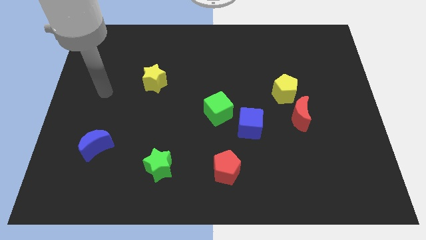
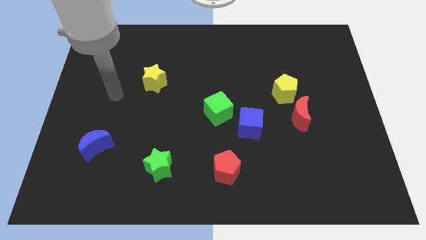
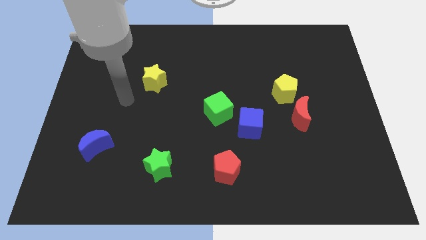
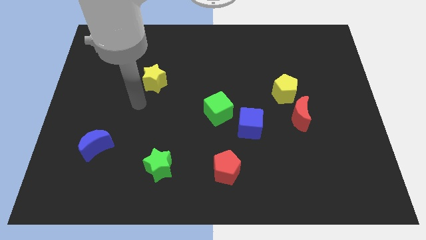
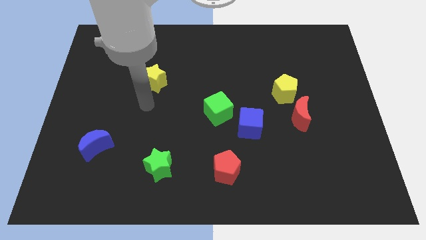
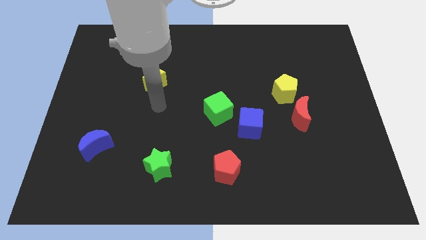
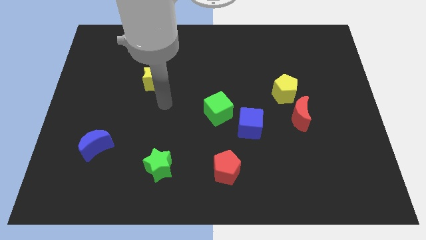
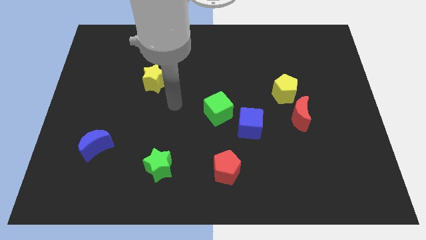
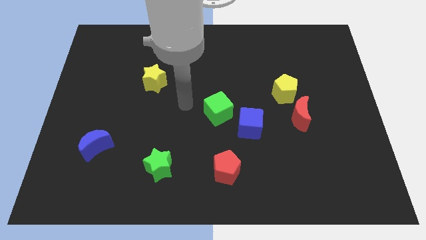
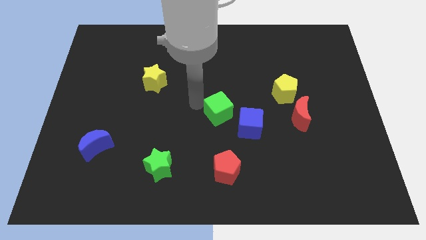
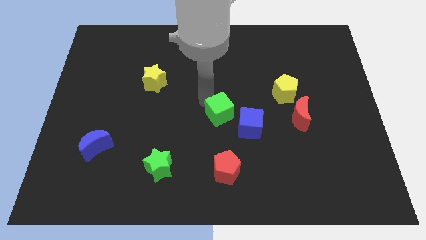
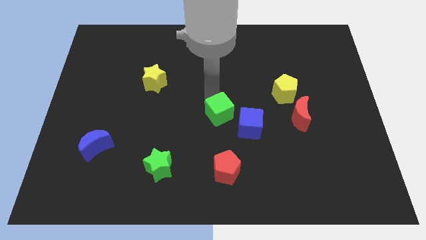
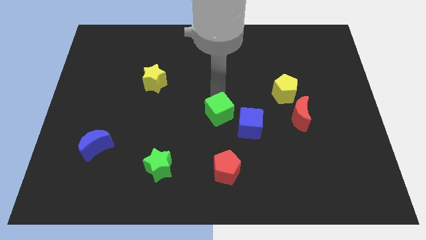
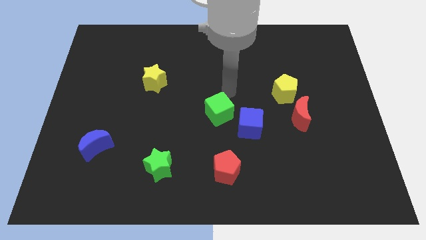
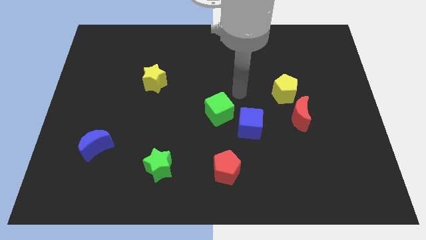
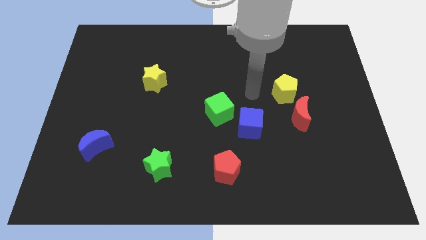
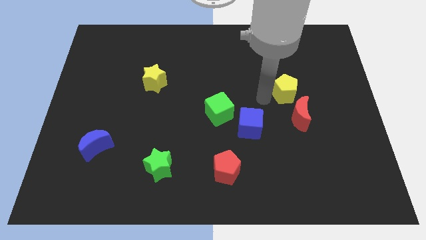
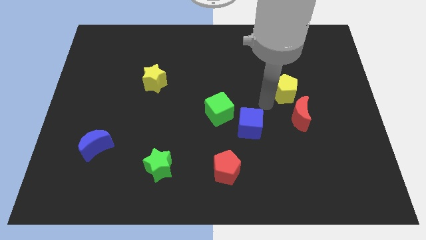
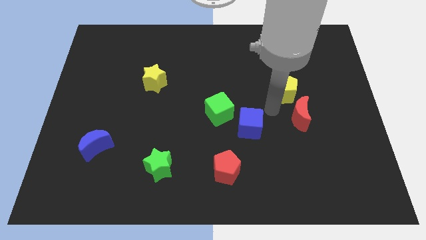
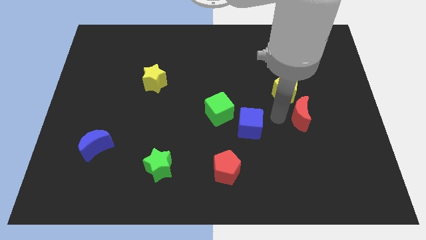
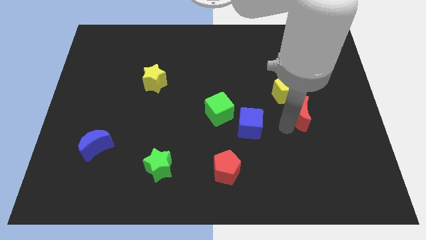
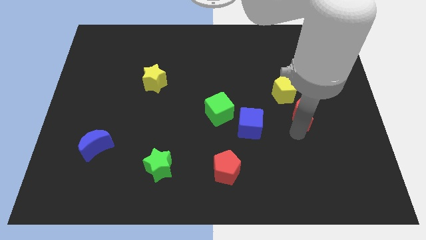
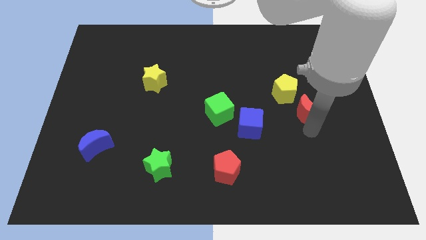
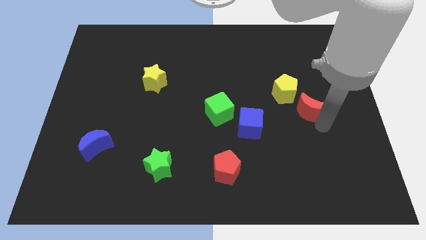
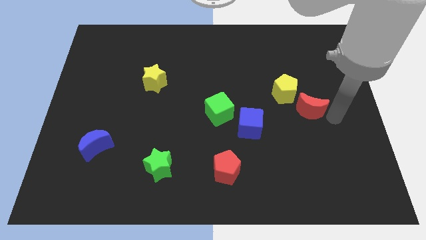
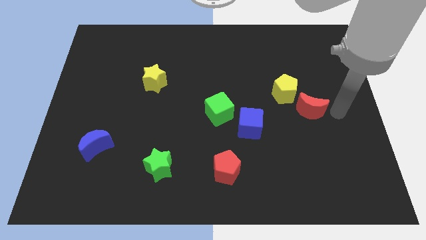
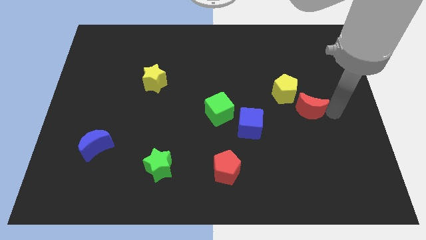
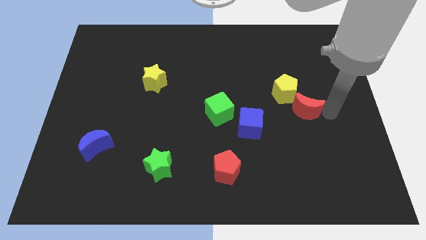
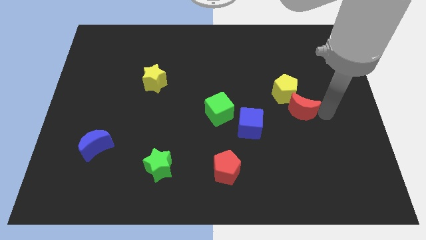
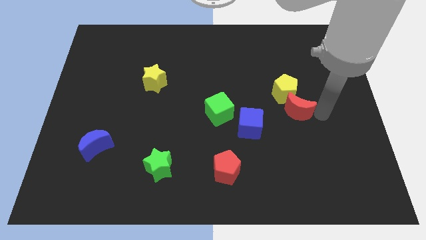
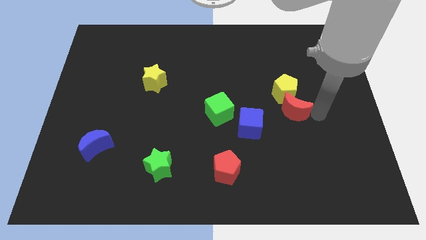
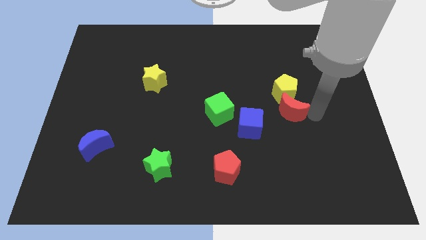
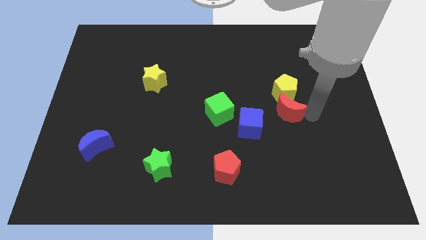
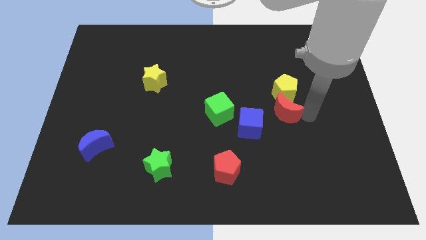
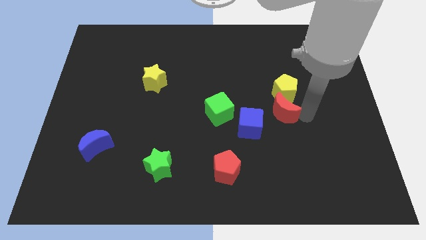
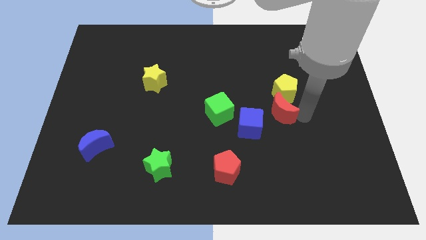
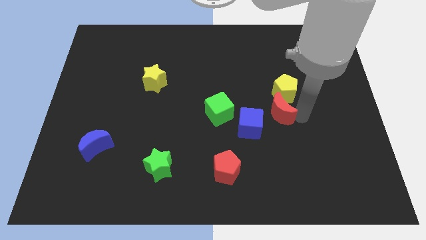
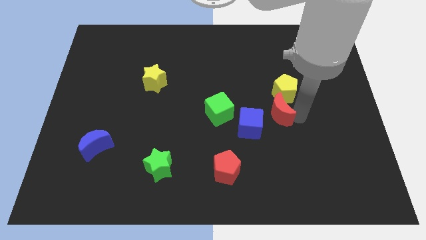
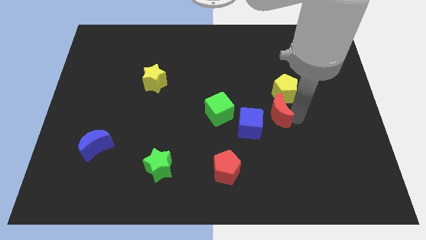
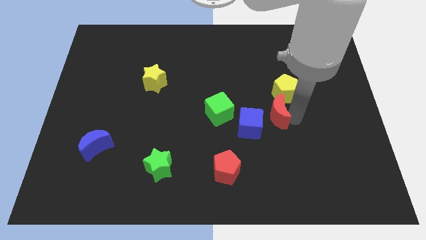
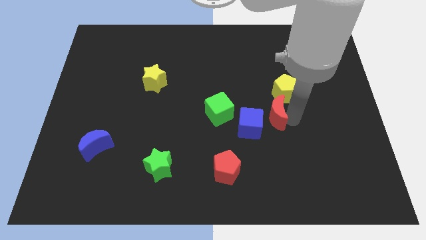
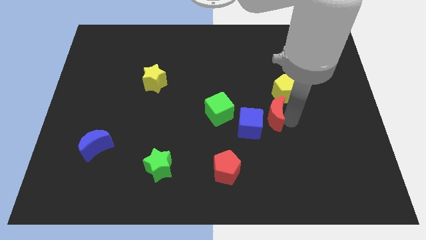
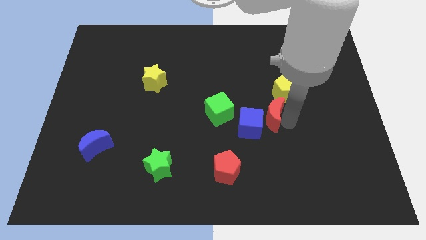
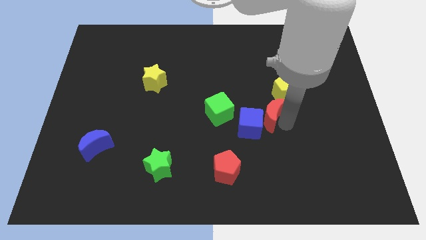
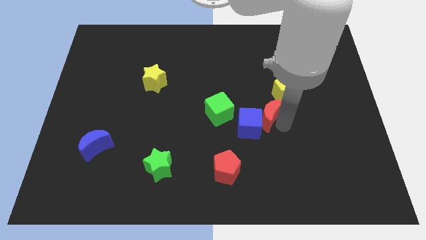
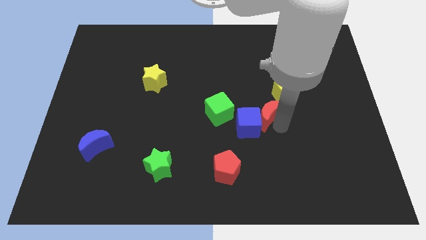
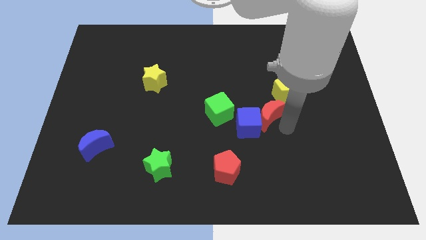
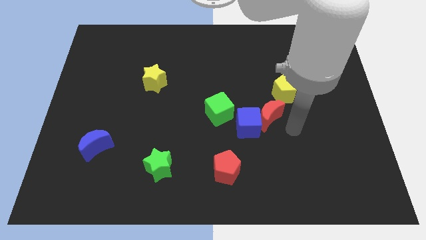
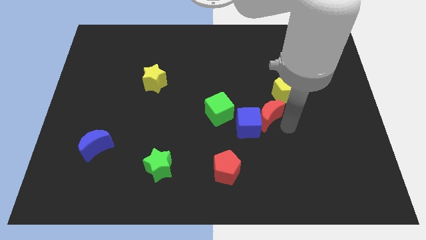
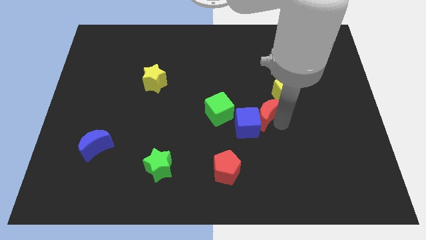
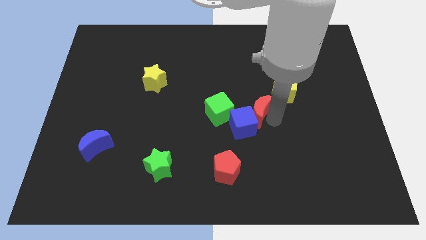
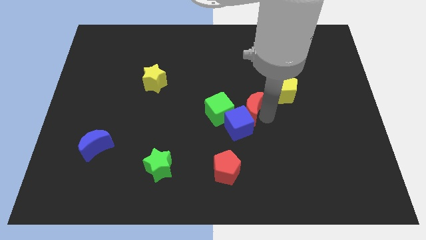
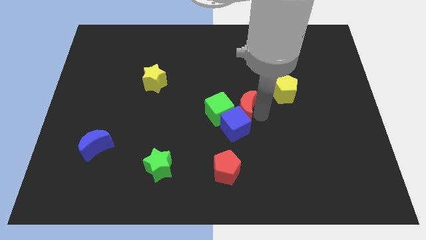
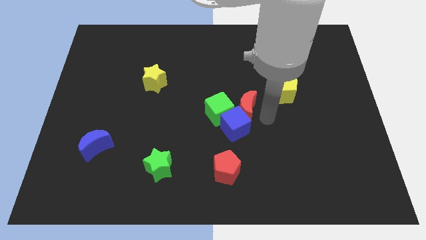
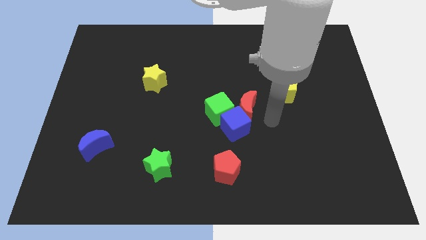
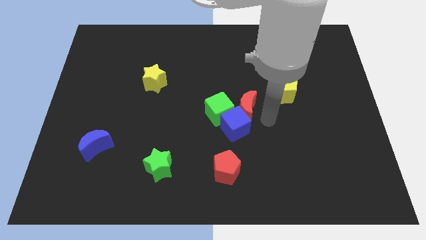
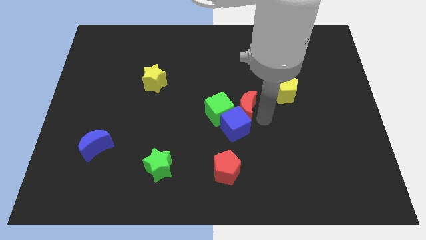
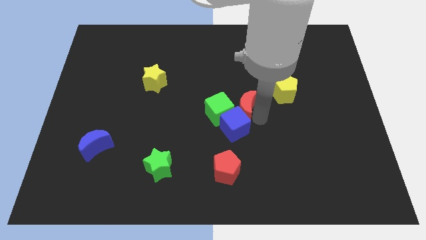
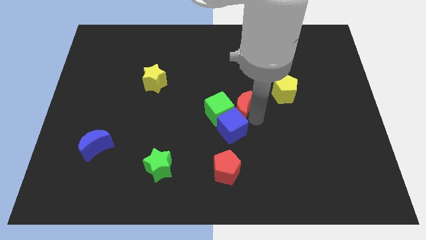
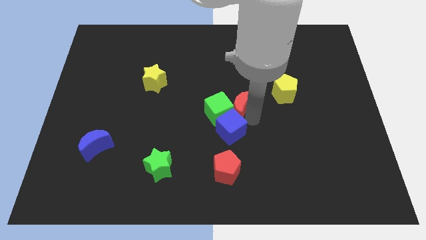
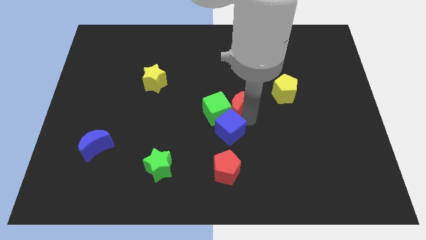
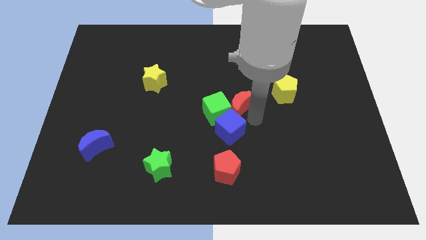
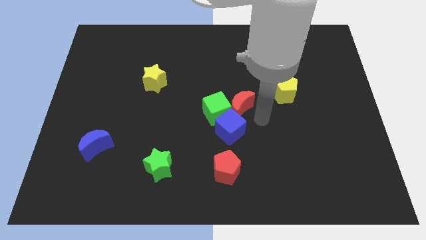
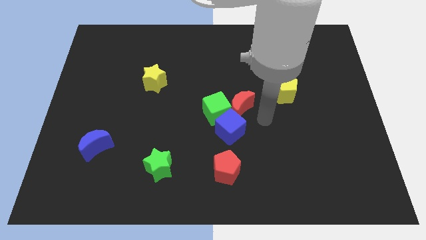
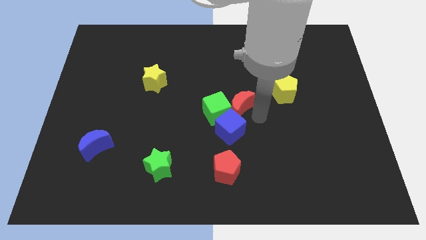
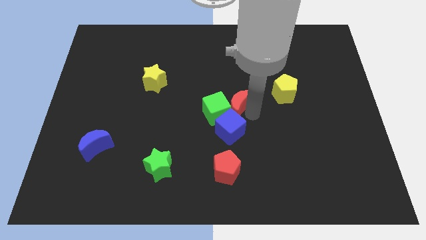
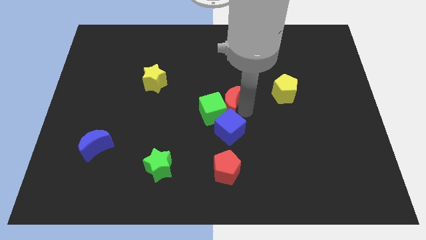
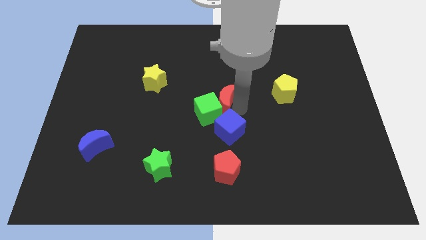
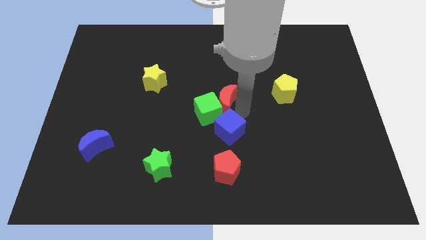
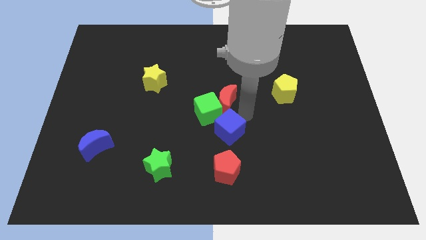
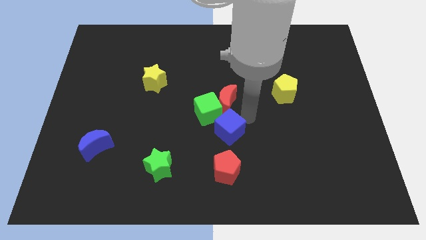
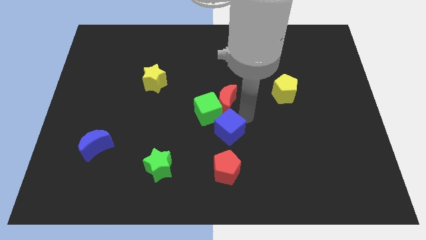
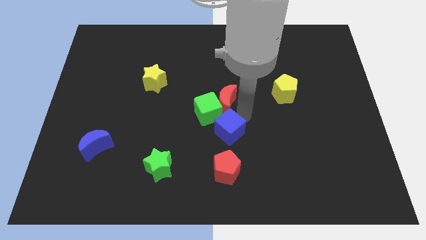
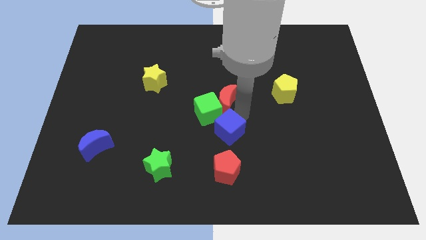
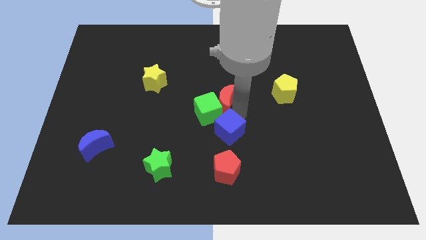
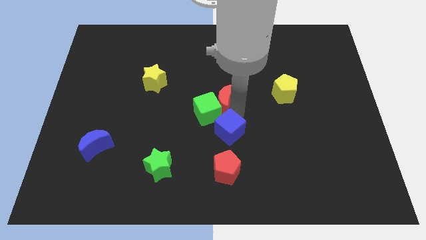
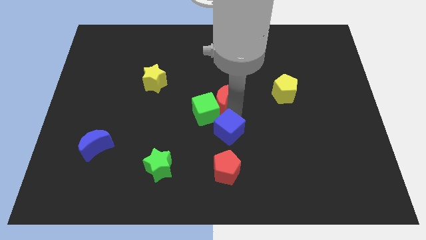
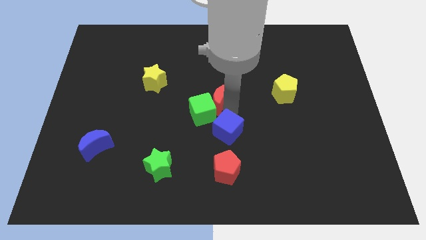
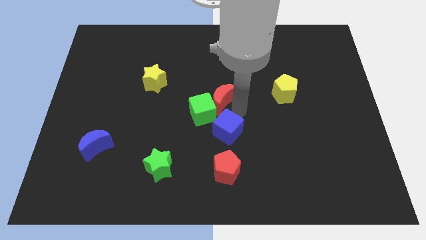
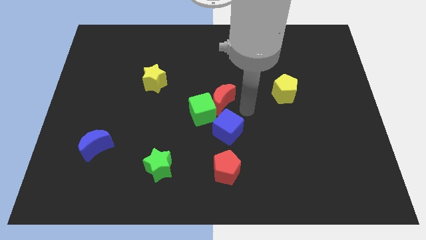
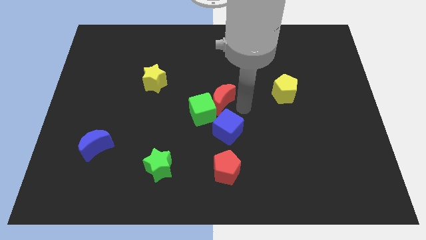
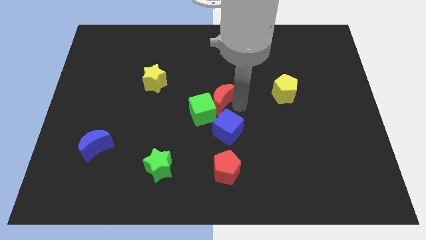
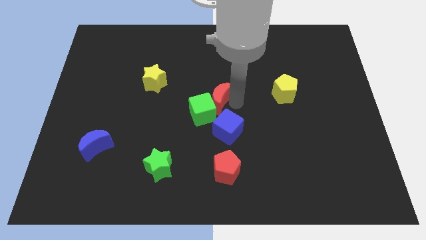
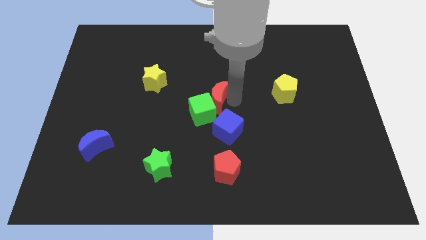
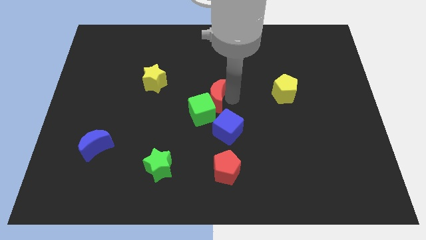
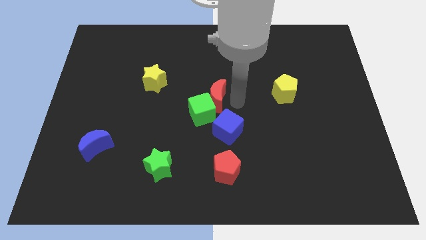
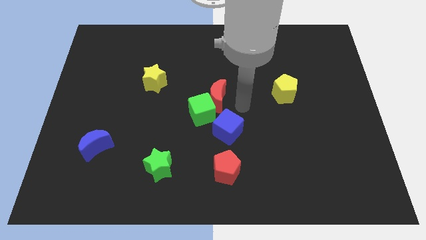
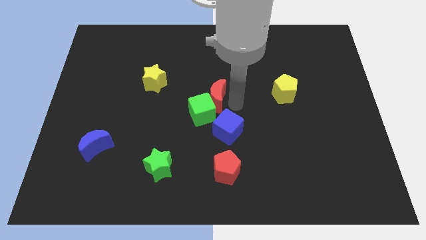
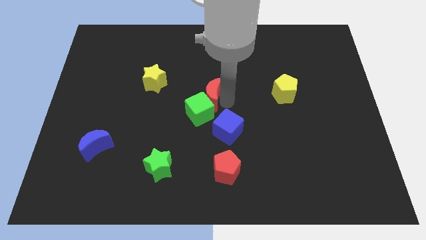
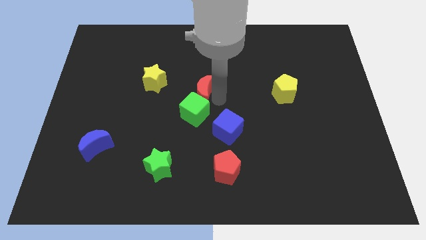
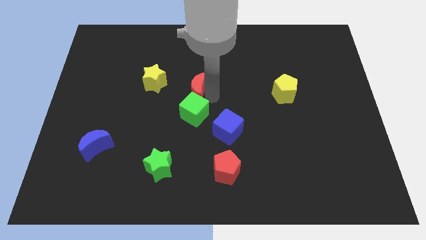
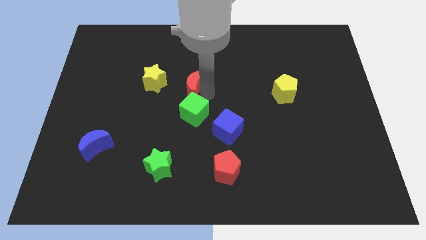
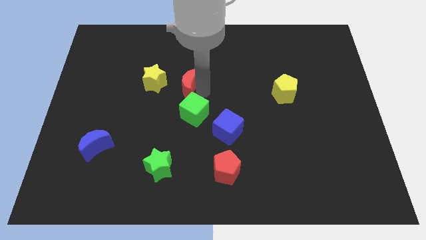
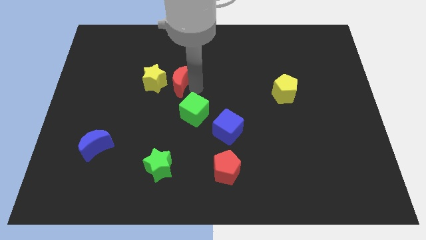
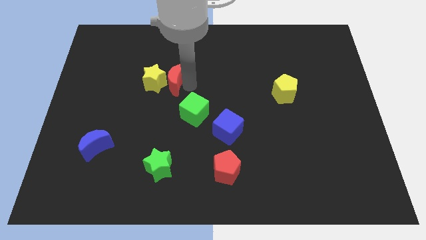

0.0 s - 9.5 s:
put the red moon next to the yellow star
